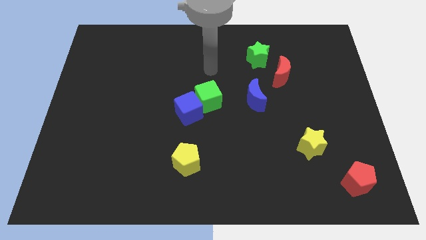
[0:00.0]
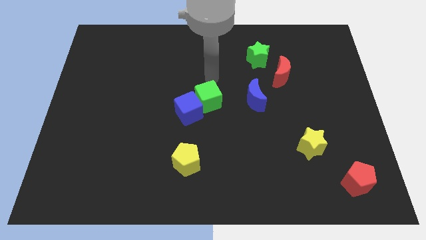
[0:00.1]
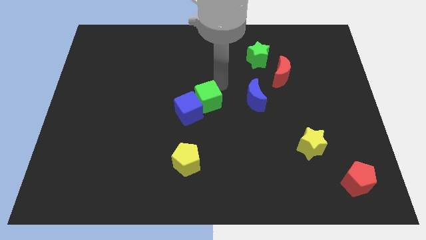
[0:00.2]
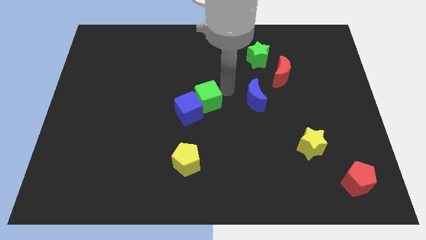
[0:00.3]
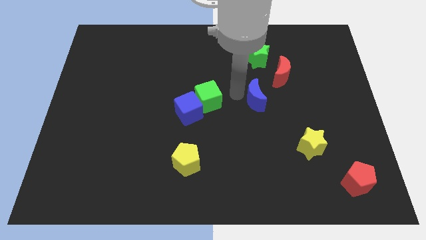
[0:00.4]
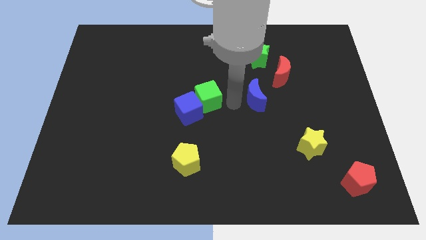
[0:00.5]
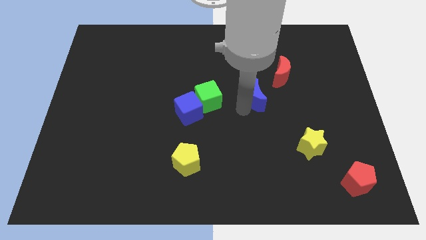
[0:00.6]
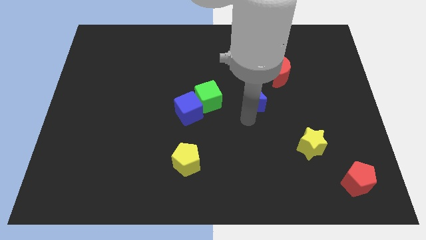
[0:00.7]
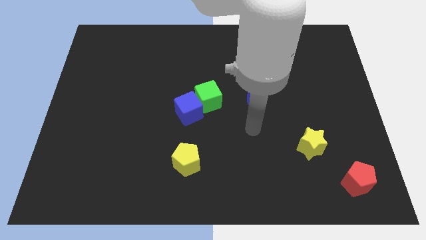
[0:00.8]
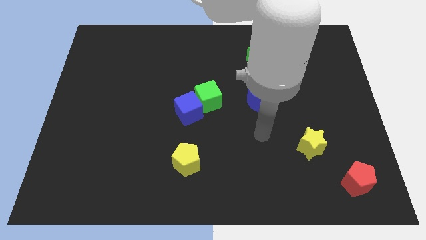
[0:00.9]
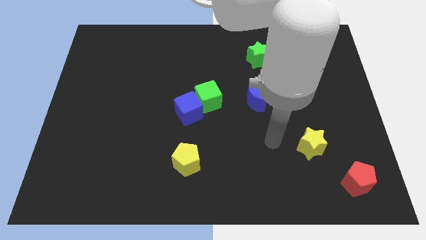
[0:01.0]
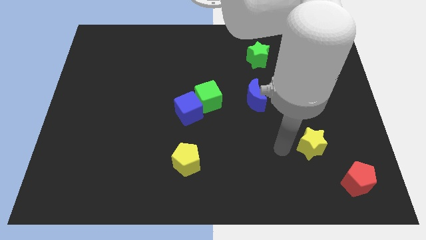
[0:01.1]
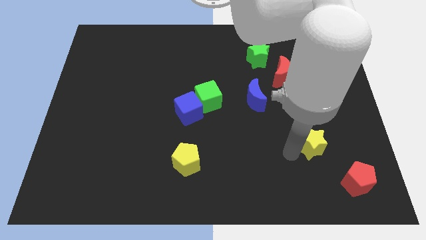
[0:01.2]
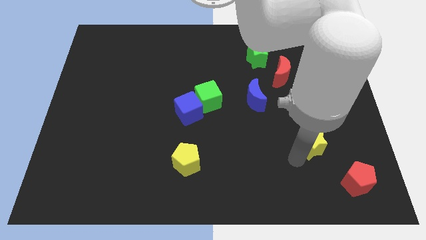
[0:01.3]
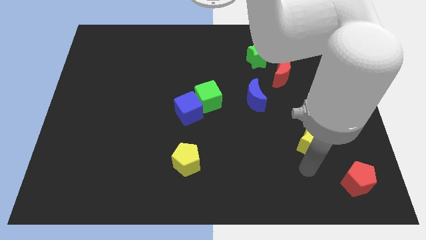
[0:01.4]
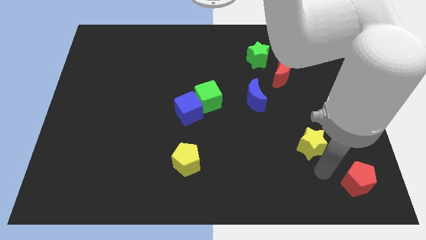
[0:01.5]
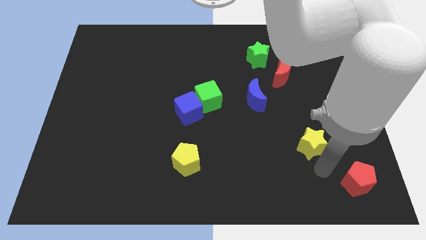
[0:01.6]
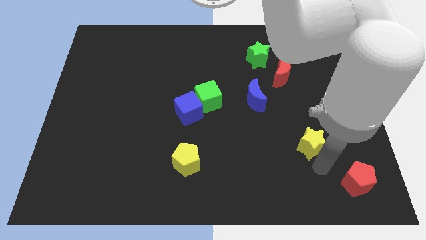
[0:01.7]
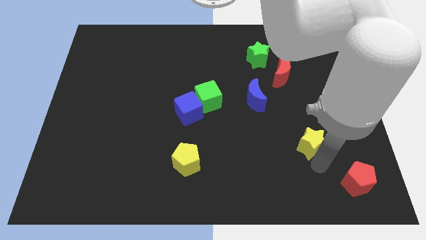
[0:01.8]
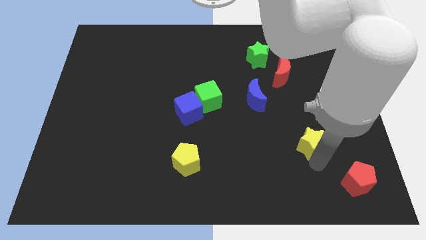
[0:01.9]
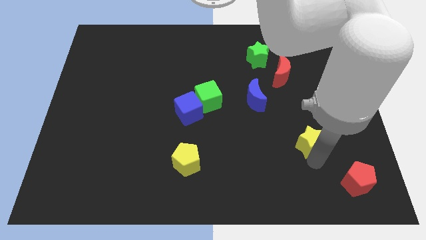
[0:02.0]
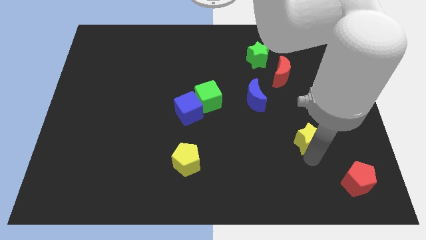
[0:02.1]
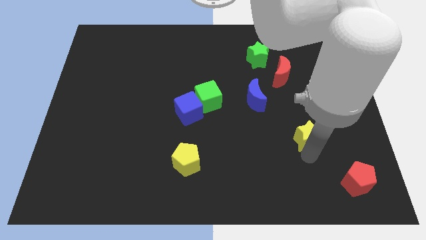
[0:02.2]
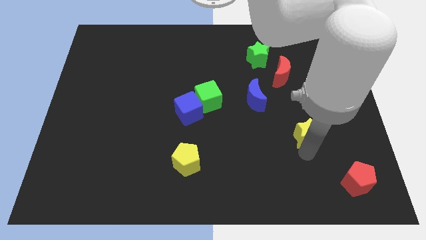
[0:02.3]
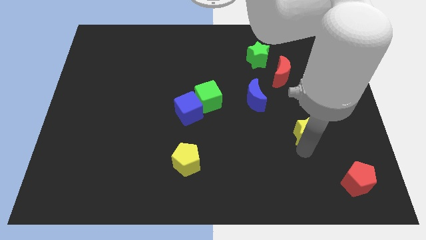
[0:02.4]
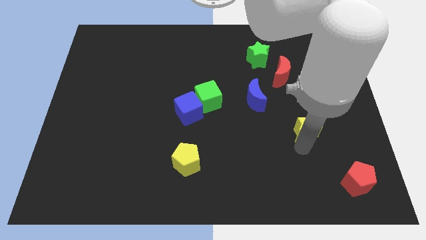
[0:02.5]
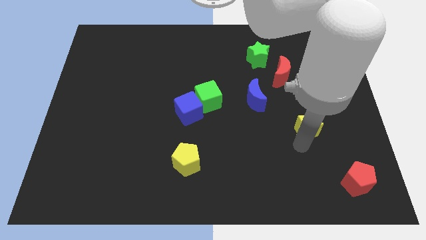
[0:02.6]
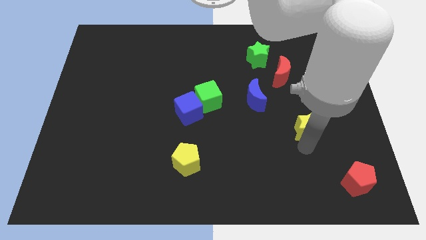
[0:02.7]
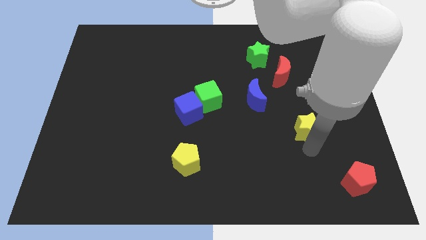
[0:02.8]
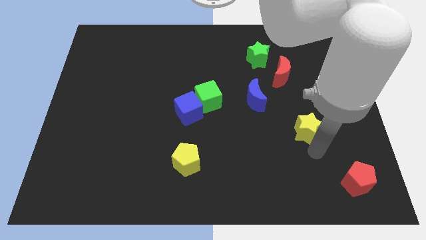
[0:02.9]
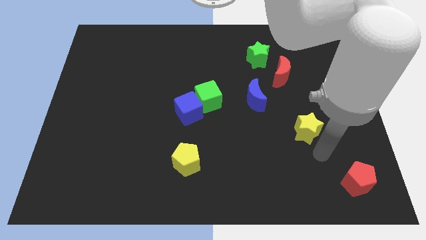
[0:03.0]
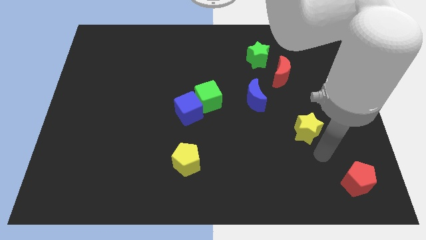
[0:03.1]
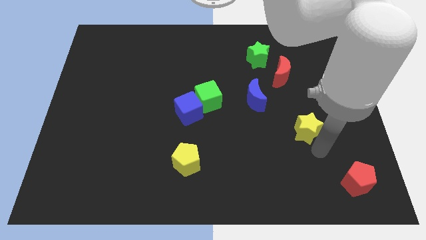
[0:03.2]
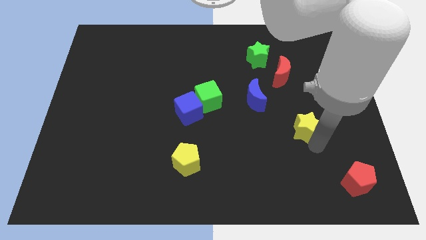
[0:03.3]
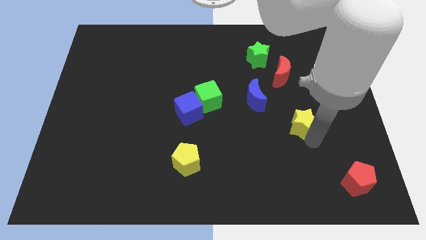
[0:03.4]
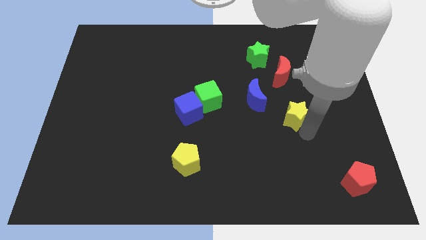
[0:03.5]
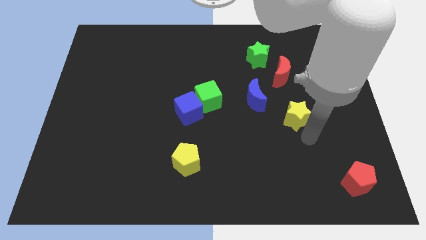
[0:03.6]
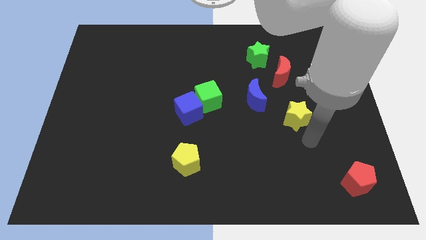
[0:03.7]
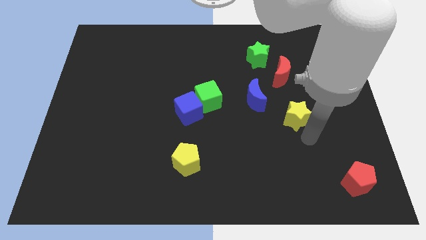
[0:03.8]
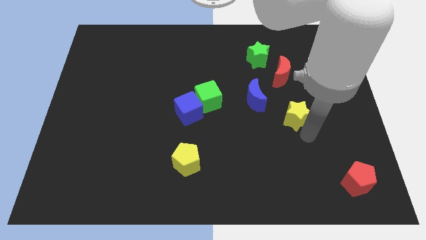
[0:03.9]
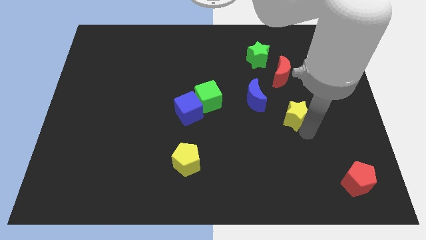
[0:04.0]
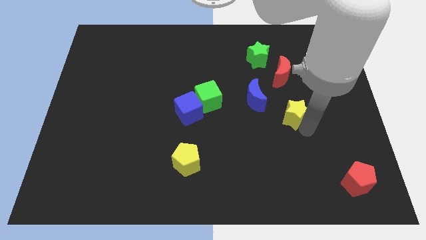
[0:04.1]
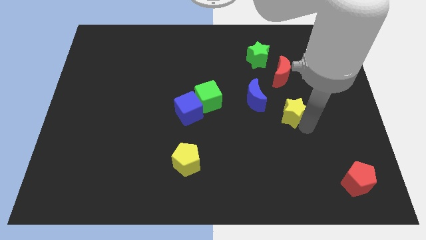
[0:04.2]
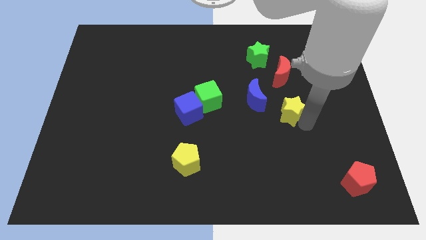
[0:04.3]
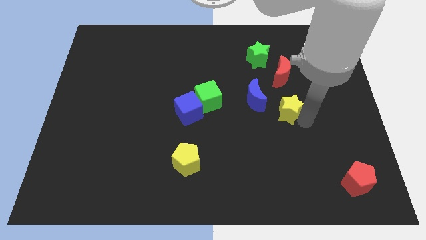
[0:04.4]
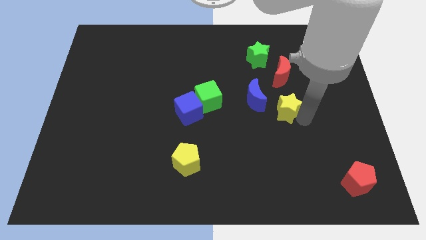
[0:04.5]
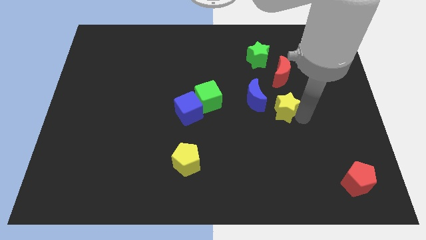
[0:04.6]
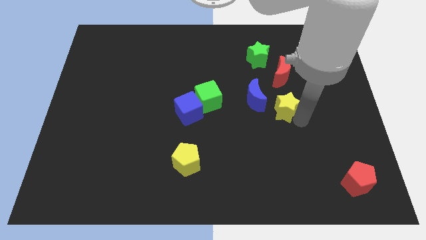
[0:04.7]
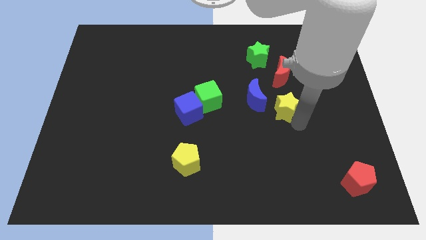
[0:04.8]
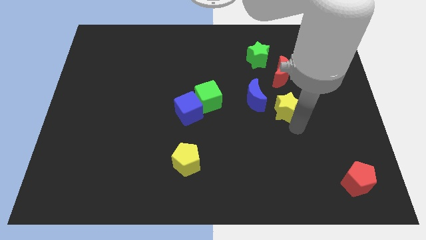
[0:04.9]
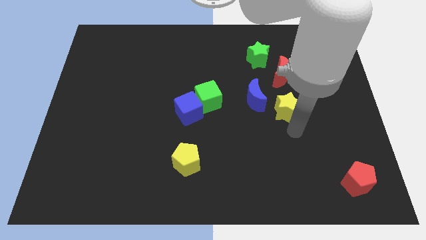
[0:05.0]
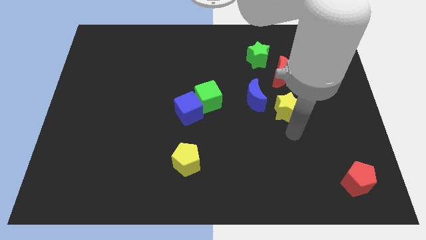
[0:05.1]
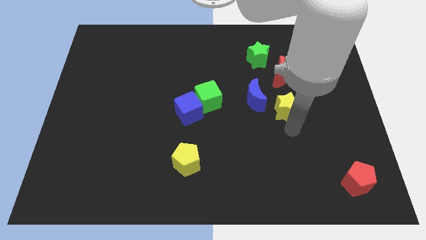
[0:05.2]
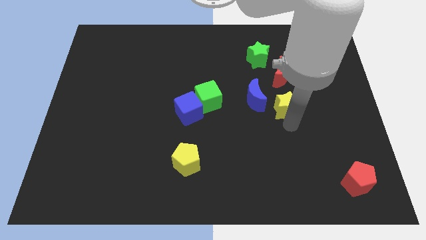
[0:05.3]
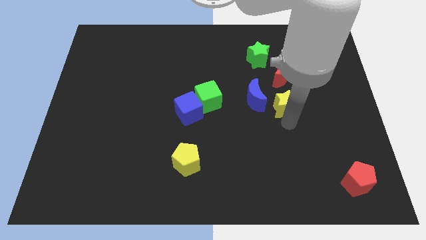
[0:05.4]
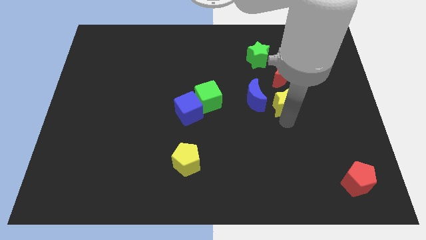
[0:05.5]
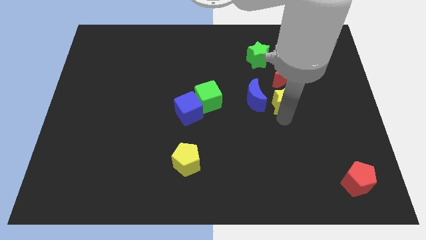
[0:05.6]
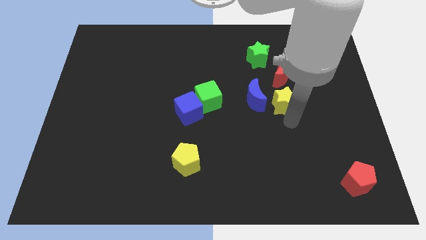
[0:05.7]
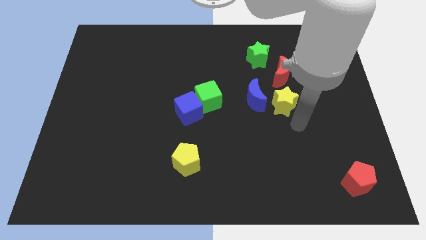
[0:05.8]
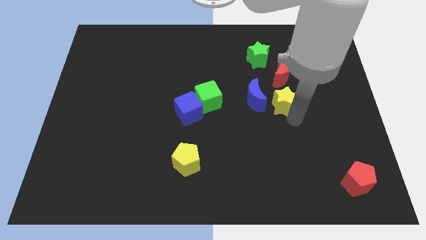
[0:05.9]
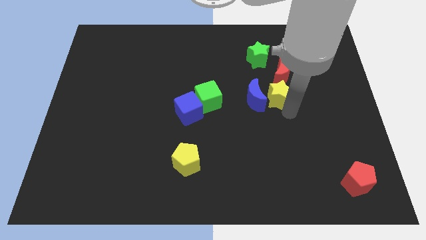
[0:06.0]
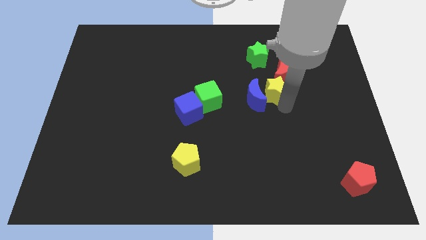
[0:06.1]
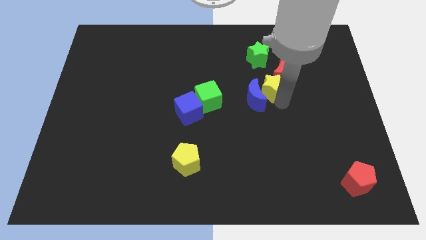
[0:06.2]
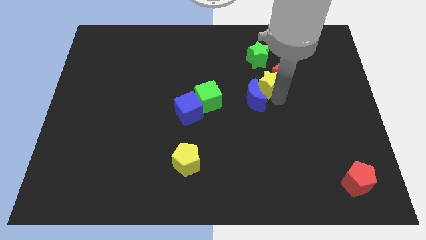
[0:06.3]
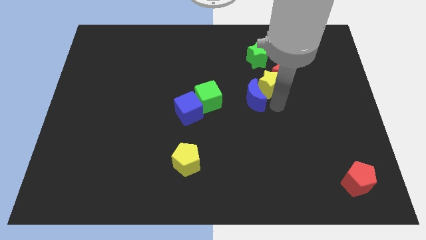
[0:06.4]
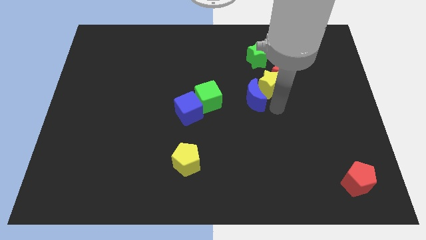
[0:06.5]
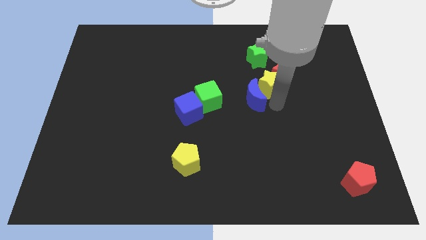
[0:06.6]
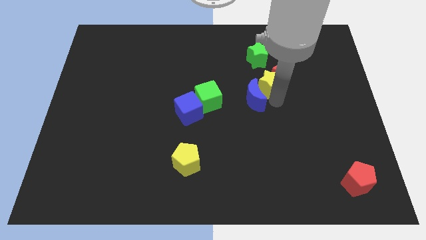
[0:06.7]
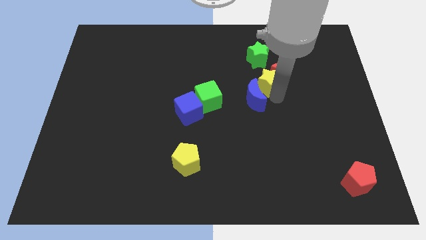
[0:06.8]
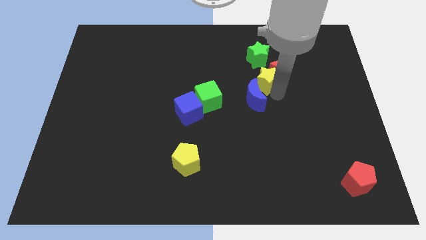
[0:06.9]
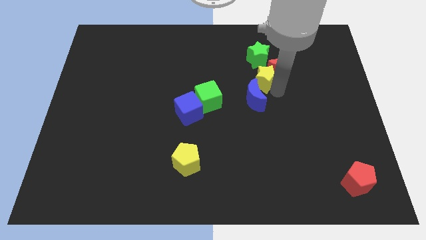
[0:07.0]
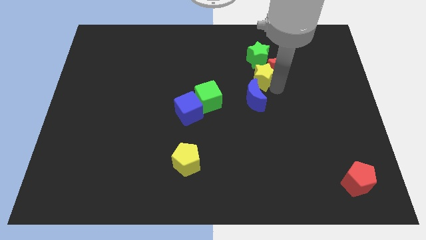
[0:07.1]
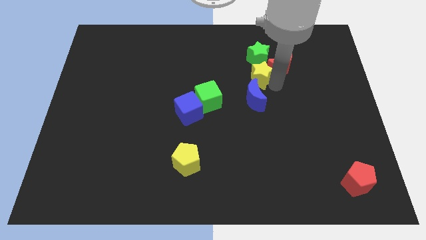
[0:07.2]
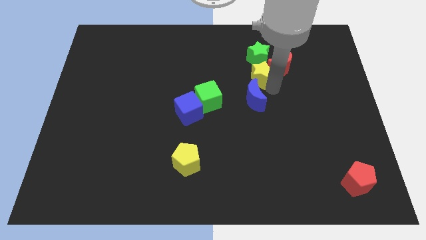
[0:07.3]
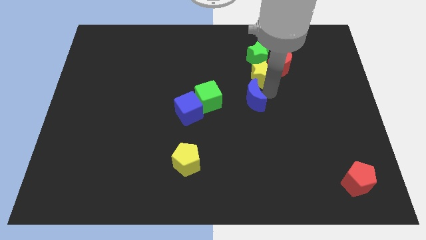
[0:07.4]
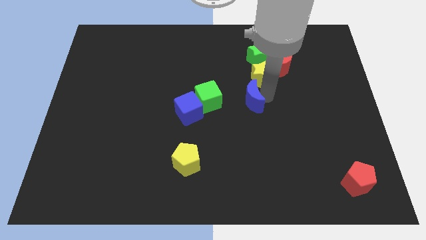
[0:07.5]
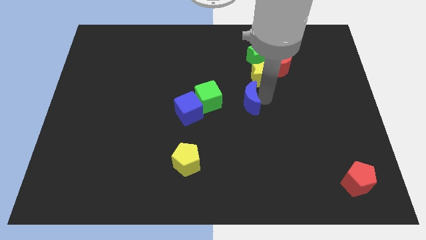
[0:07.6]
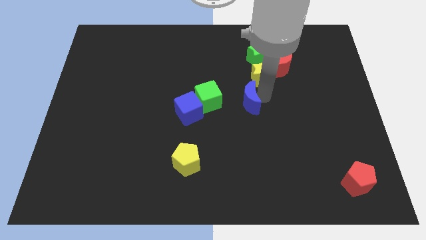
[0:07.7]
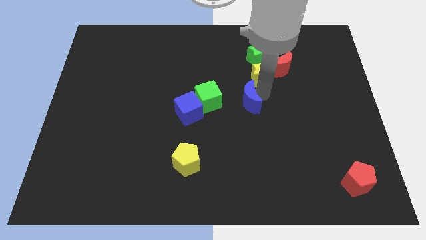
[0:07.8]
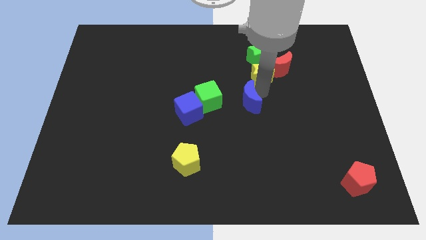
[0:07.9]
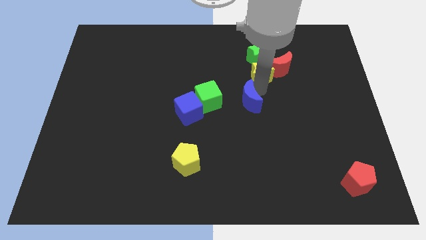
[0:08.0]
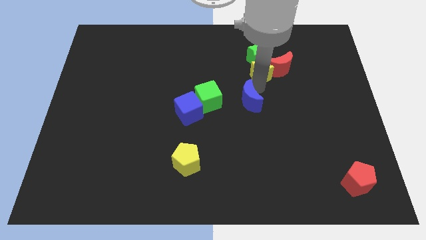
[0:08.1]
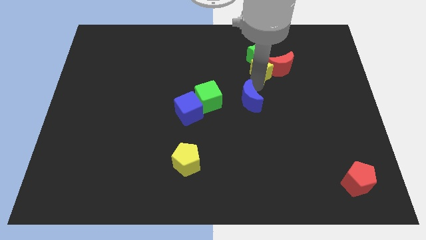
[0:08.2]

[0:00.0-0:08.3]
push the yellow star towards the green star
